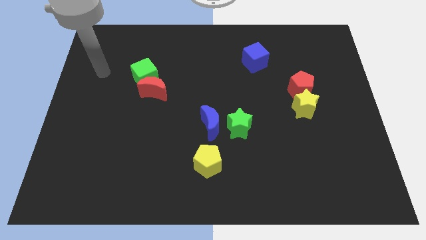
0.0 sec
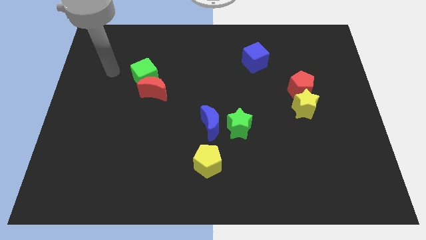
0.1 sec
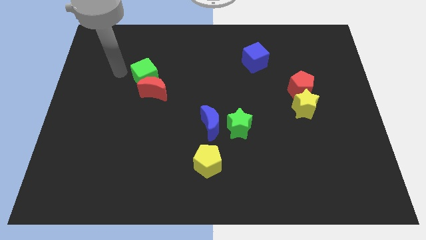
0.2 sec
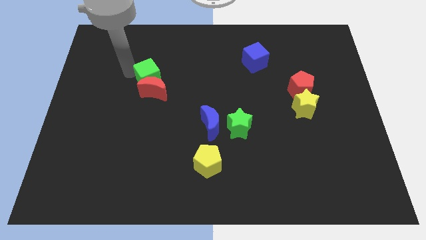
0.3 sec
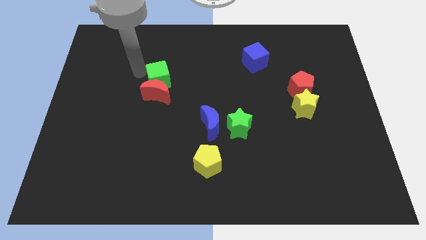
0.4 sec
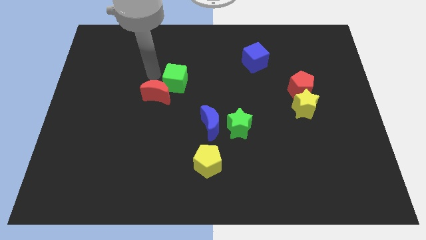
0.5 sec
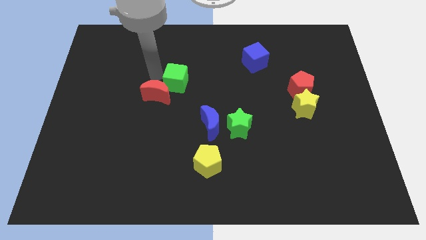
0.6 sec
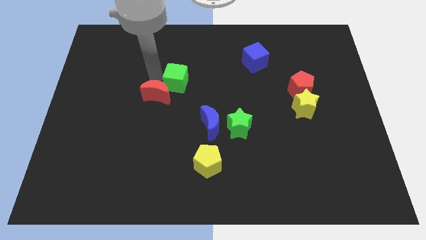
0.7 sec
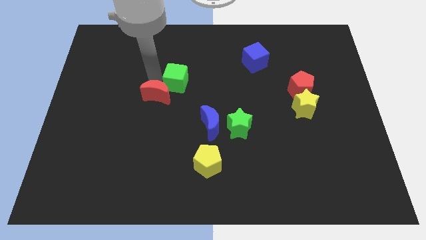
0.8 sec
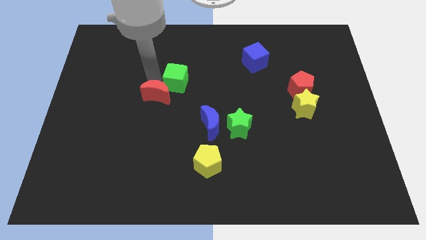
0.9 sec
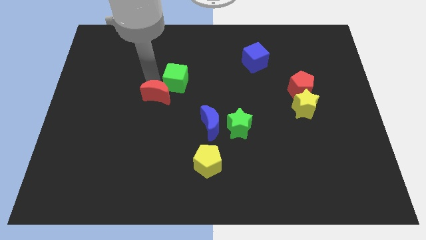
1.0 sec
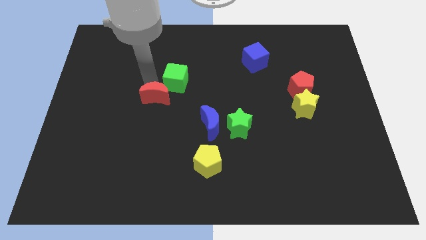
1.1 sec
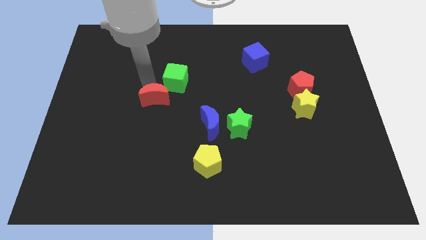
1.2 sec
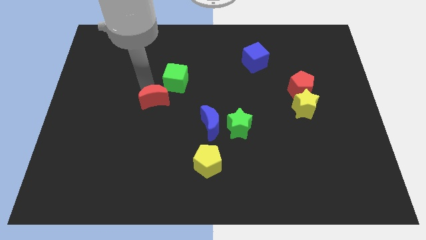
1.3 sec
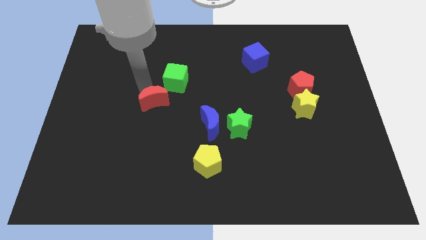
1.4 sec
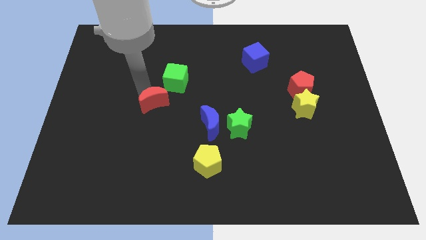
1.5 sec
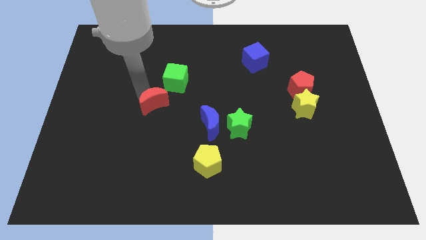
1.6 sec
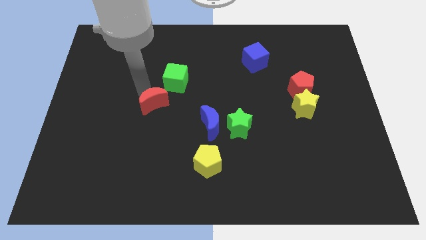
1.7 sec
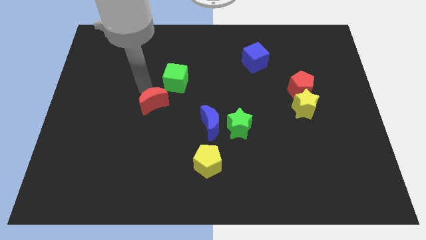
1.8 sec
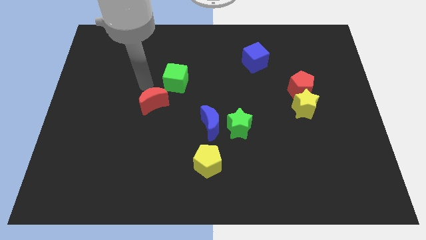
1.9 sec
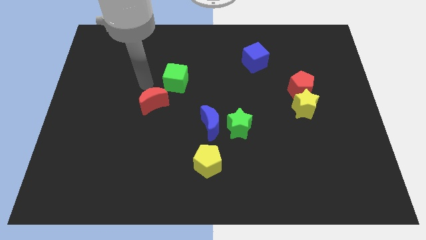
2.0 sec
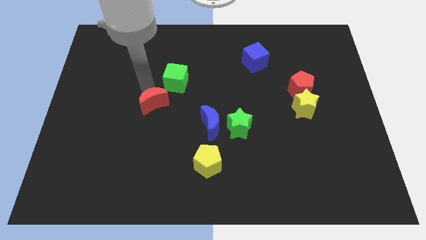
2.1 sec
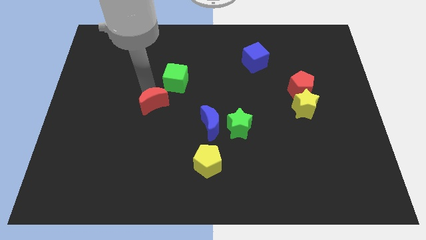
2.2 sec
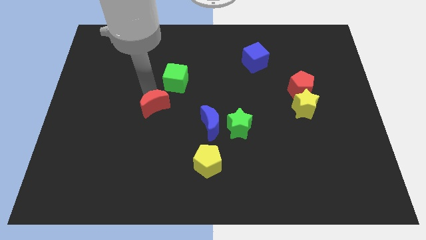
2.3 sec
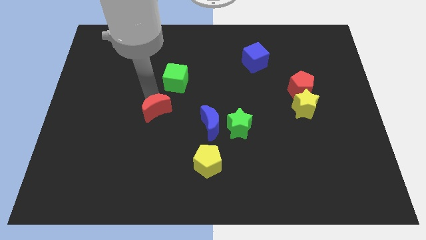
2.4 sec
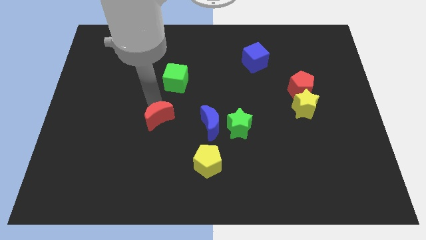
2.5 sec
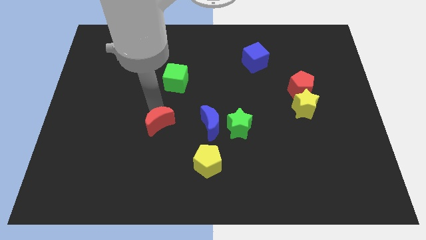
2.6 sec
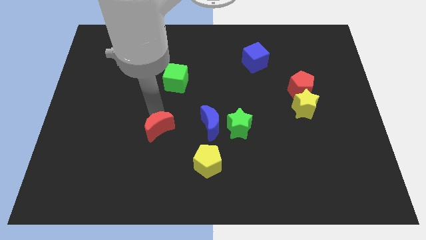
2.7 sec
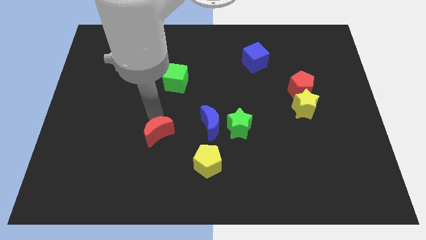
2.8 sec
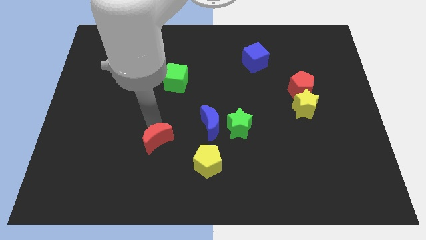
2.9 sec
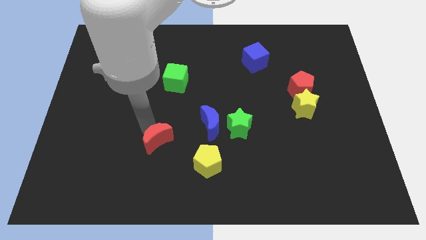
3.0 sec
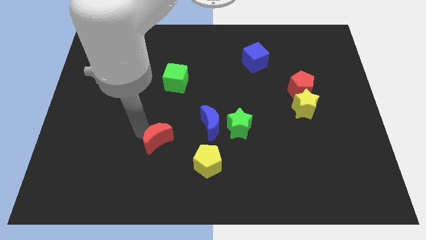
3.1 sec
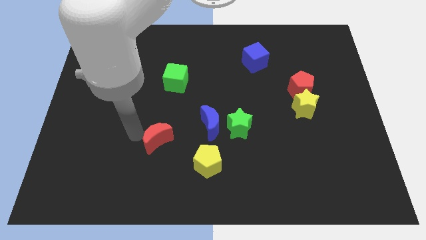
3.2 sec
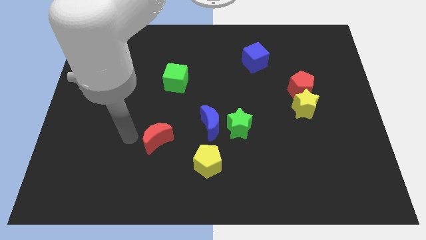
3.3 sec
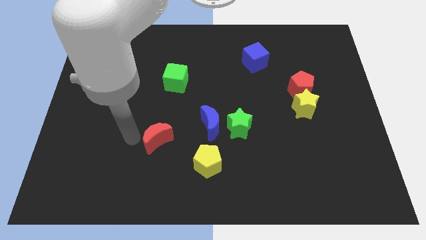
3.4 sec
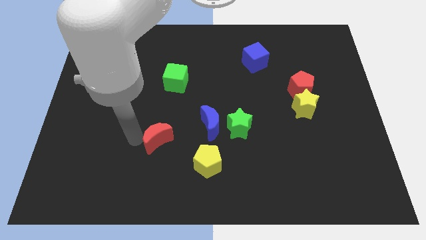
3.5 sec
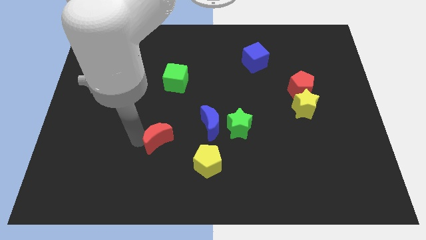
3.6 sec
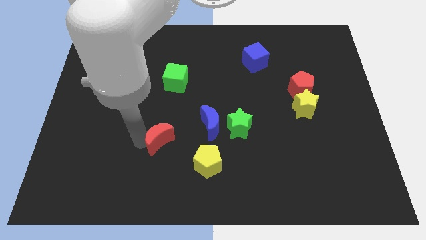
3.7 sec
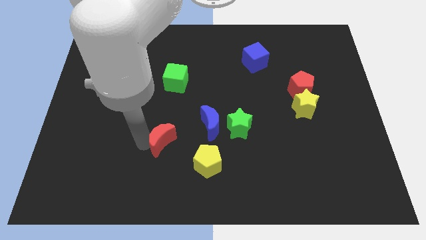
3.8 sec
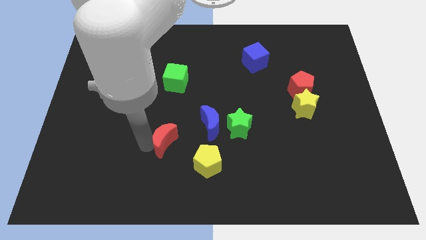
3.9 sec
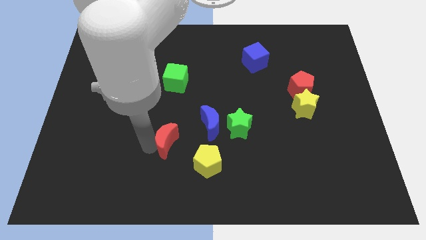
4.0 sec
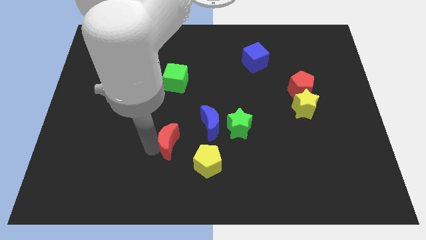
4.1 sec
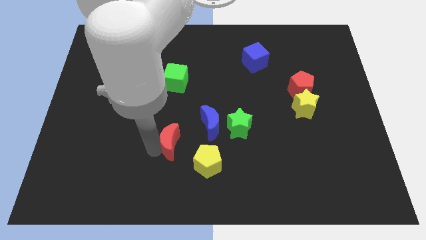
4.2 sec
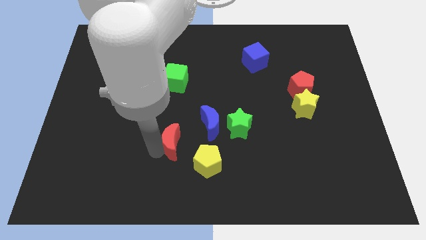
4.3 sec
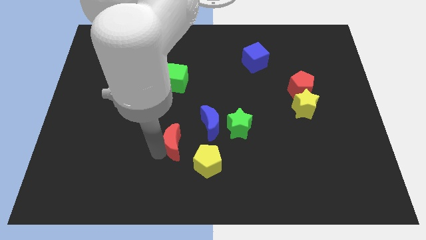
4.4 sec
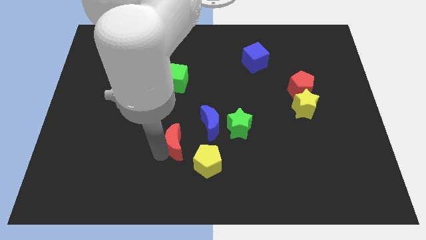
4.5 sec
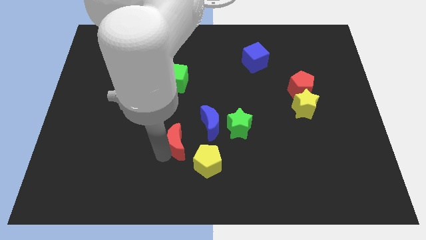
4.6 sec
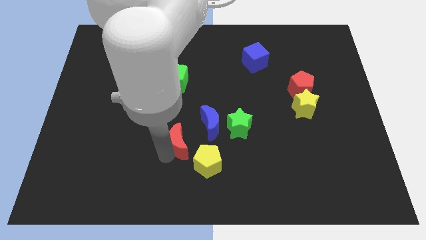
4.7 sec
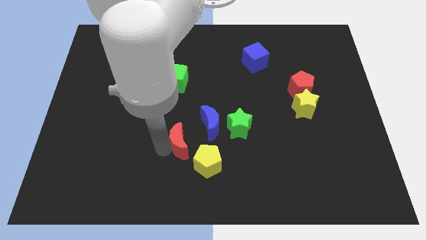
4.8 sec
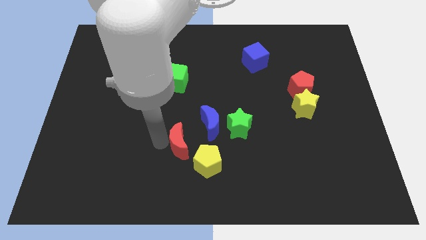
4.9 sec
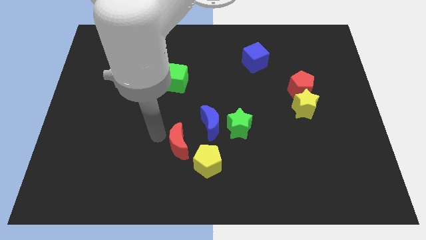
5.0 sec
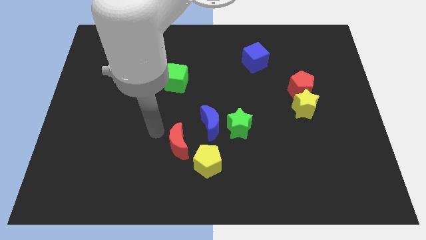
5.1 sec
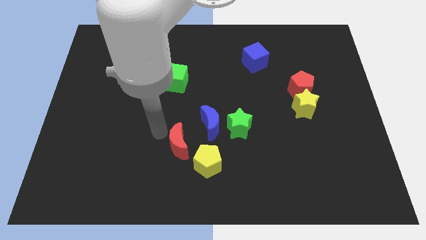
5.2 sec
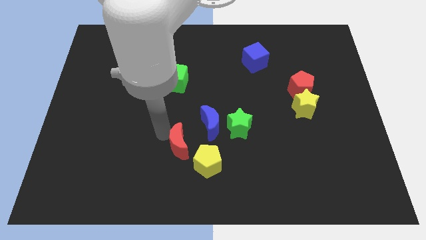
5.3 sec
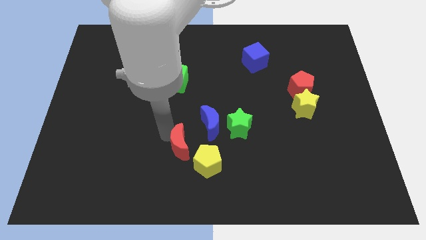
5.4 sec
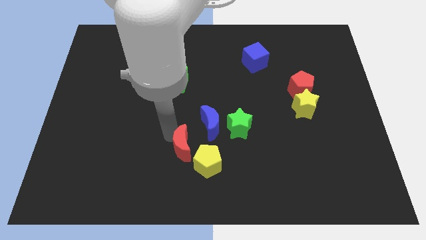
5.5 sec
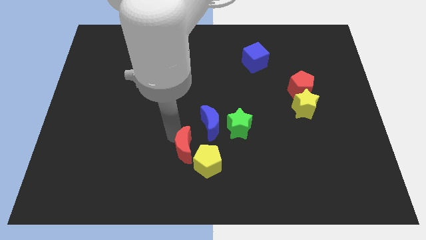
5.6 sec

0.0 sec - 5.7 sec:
move the red moon close to the yellow pentagon

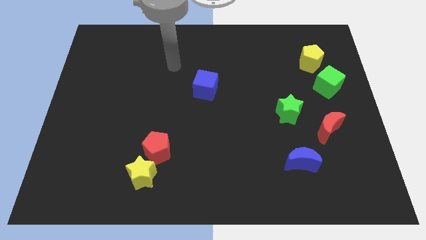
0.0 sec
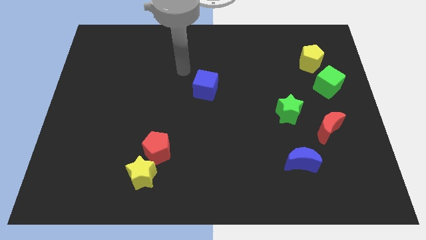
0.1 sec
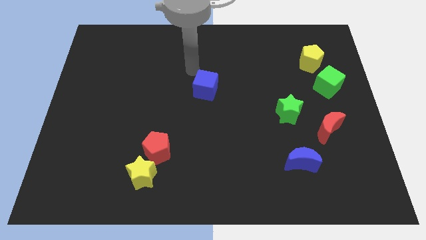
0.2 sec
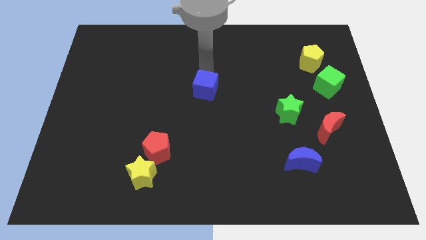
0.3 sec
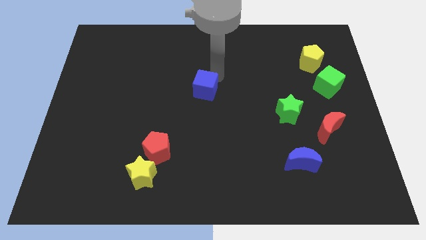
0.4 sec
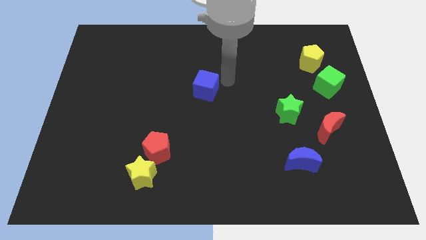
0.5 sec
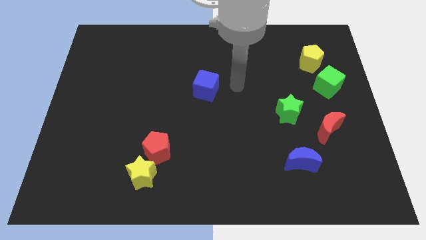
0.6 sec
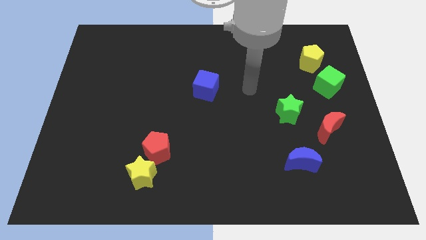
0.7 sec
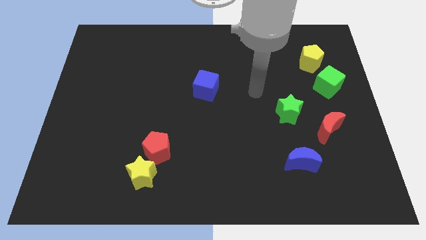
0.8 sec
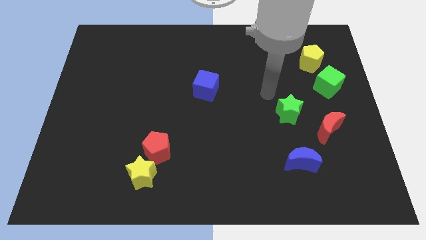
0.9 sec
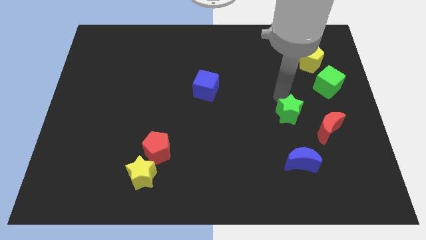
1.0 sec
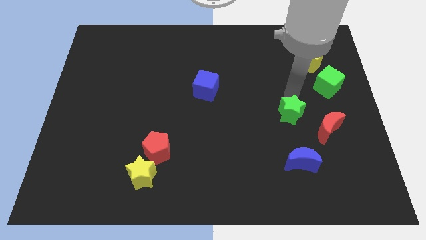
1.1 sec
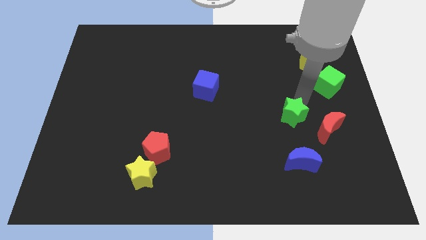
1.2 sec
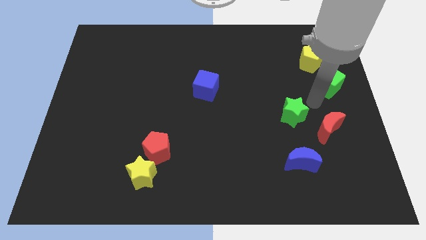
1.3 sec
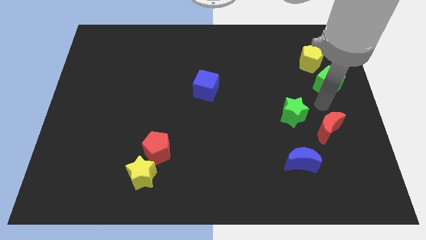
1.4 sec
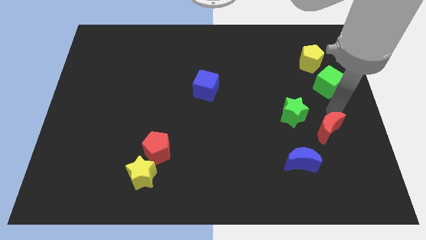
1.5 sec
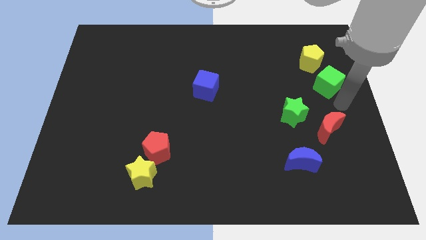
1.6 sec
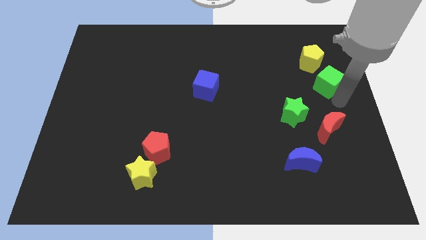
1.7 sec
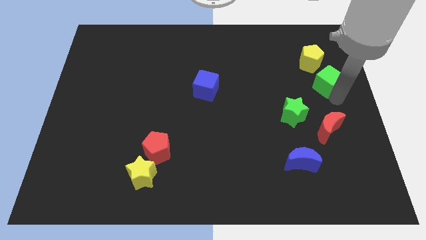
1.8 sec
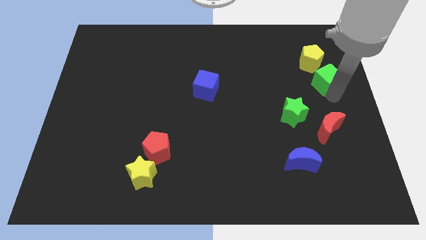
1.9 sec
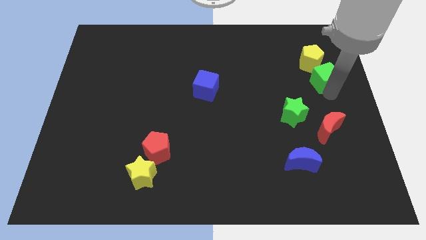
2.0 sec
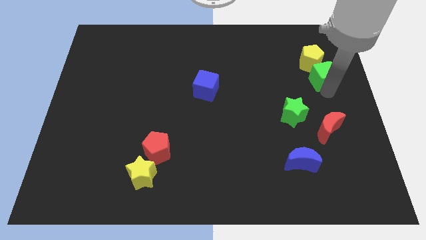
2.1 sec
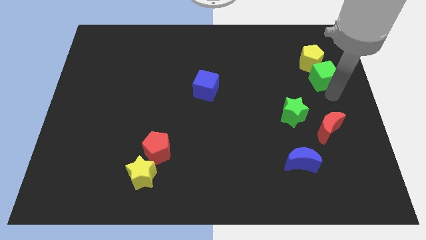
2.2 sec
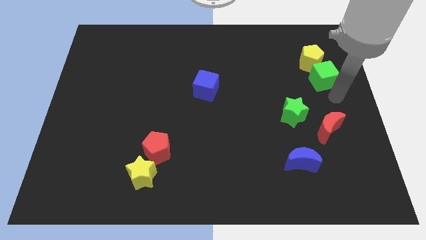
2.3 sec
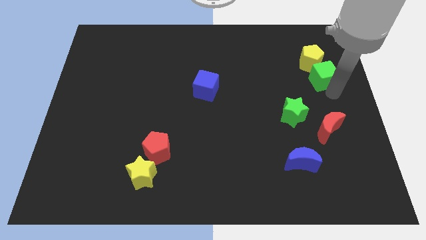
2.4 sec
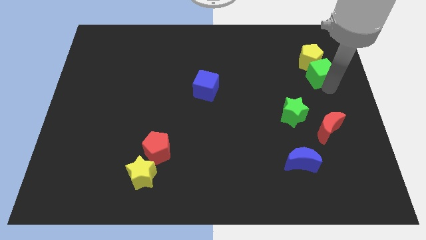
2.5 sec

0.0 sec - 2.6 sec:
put the green cube close to the yellow pentagon
